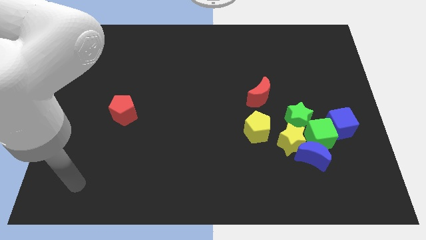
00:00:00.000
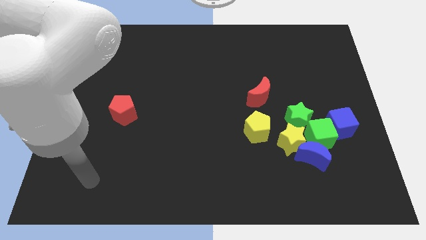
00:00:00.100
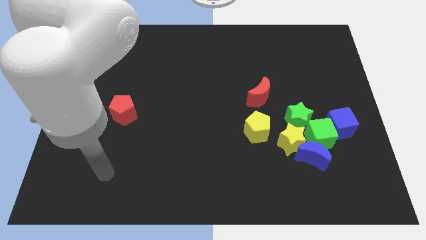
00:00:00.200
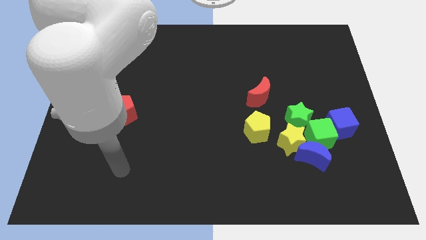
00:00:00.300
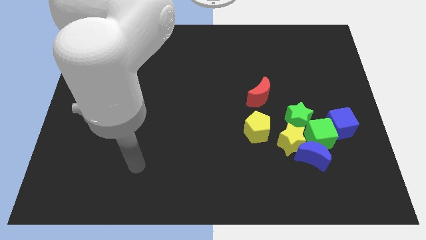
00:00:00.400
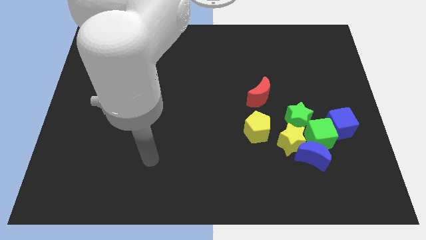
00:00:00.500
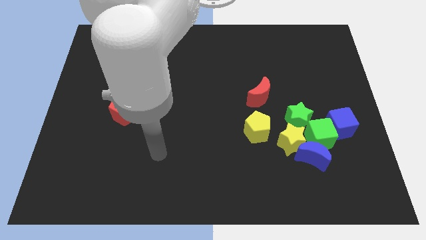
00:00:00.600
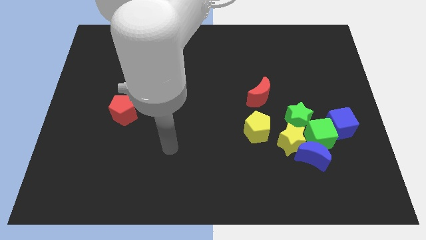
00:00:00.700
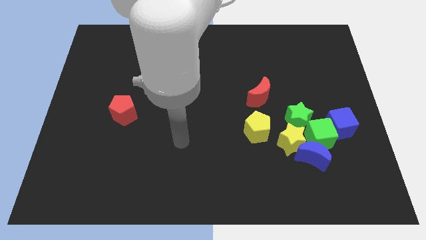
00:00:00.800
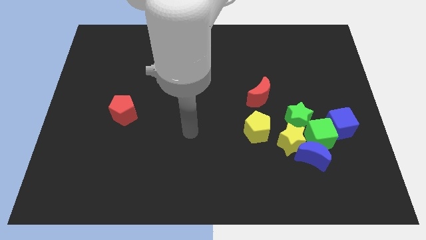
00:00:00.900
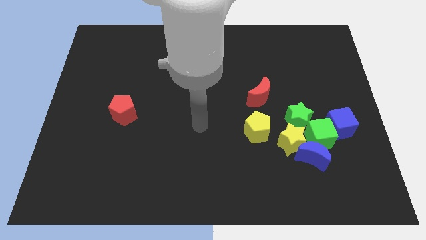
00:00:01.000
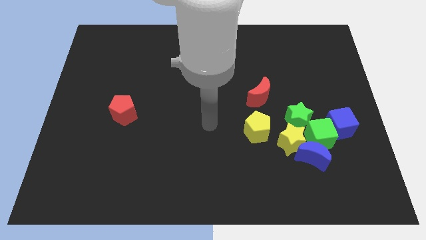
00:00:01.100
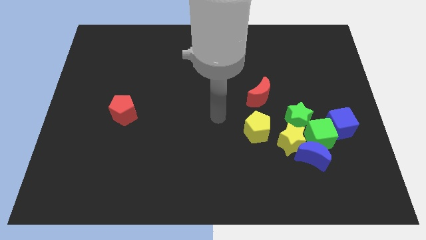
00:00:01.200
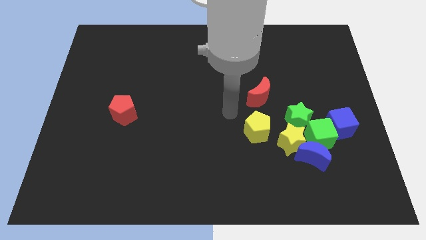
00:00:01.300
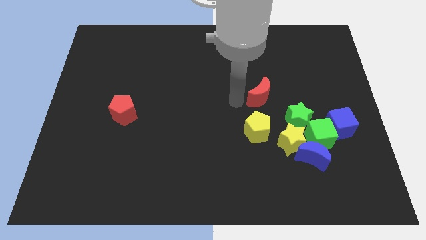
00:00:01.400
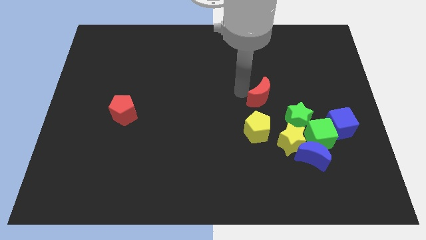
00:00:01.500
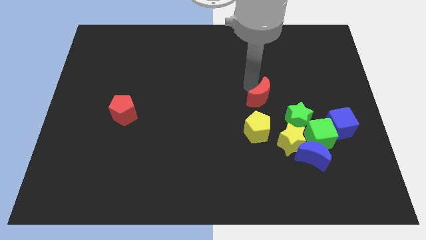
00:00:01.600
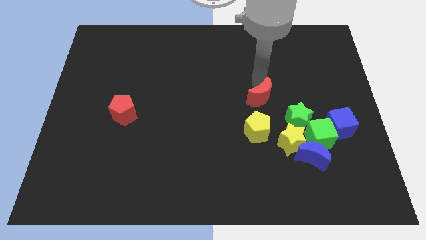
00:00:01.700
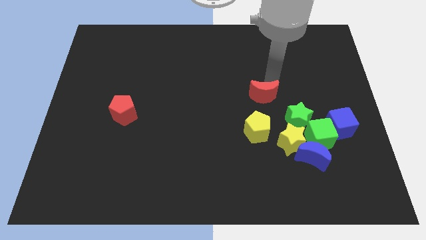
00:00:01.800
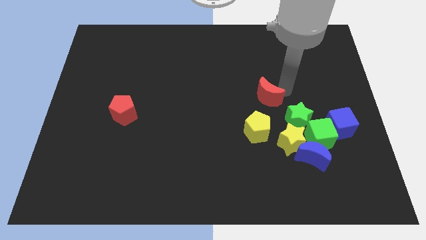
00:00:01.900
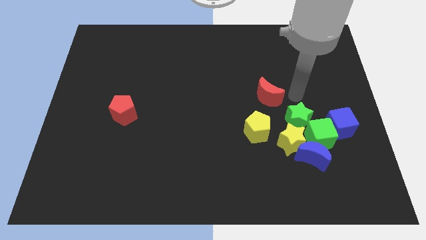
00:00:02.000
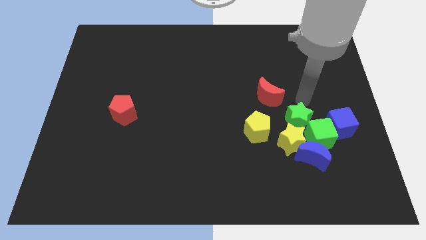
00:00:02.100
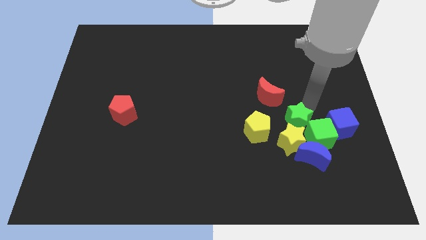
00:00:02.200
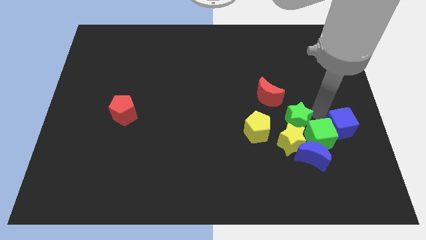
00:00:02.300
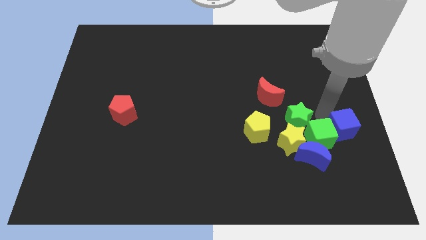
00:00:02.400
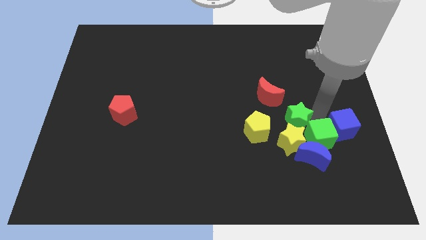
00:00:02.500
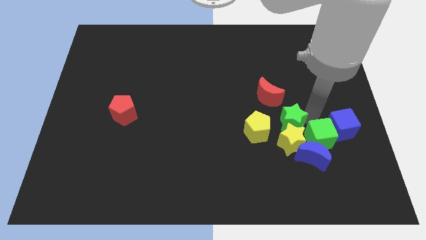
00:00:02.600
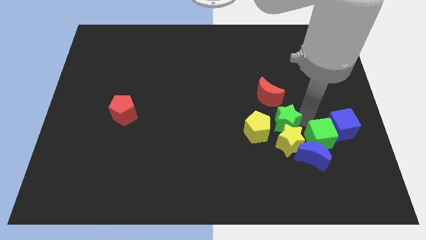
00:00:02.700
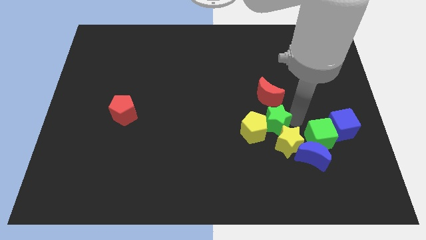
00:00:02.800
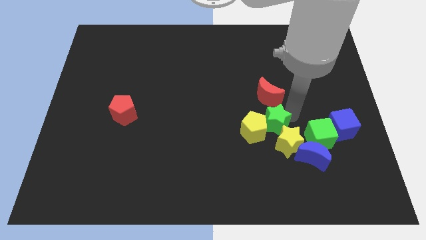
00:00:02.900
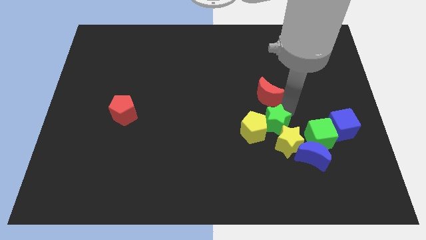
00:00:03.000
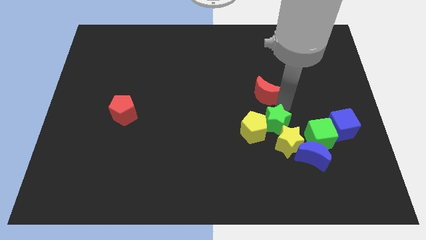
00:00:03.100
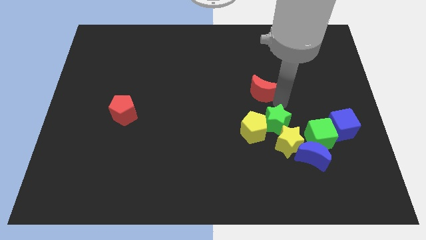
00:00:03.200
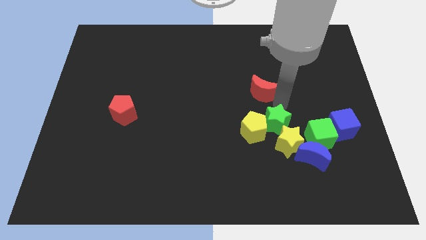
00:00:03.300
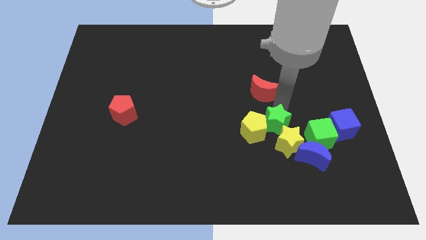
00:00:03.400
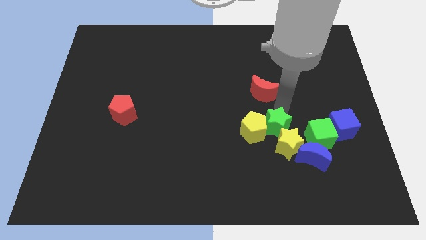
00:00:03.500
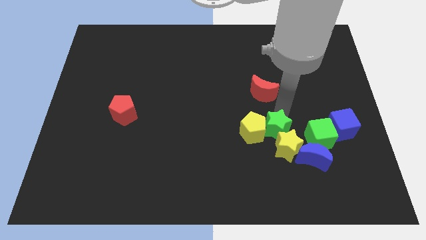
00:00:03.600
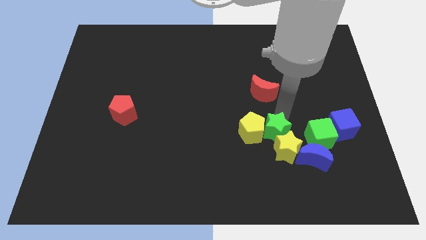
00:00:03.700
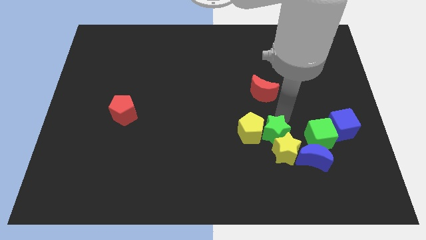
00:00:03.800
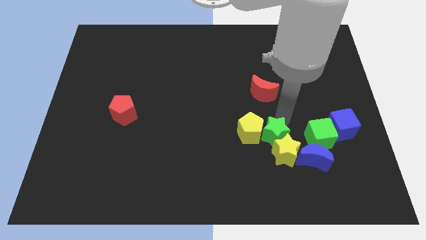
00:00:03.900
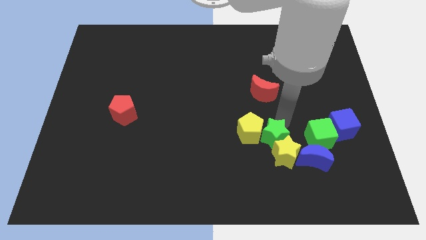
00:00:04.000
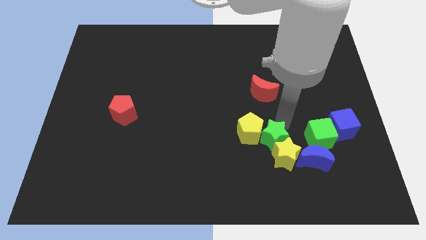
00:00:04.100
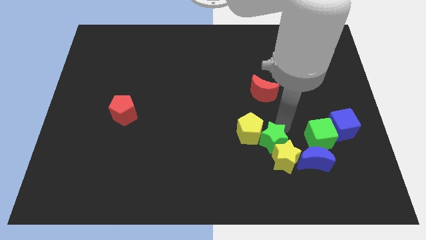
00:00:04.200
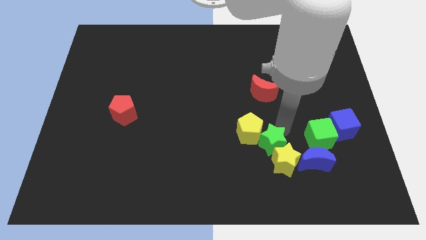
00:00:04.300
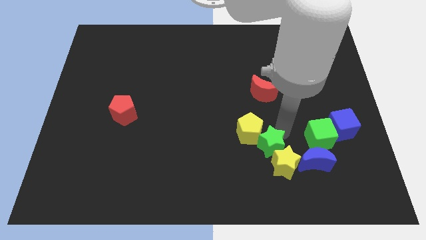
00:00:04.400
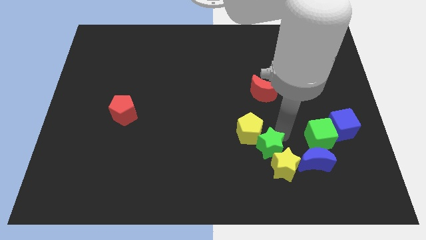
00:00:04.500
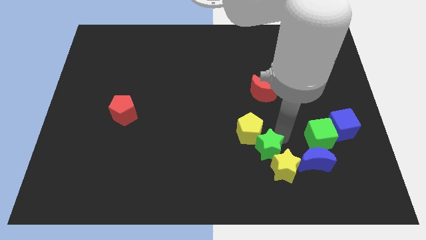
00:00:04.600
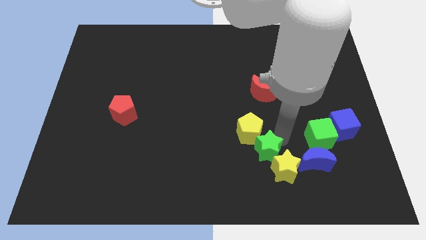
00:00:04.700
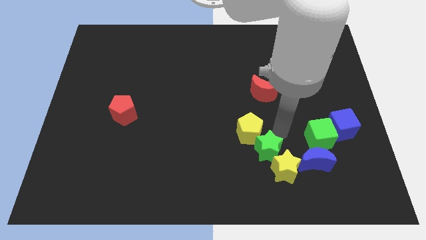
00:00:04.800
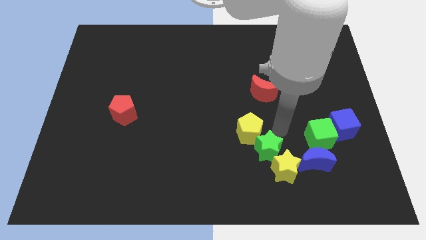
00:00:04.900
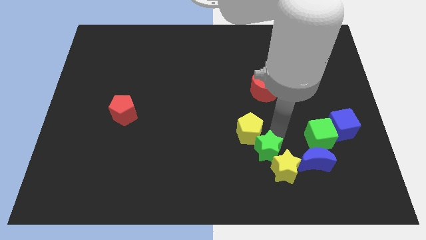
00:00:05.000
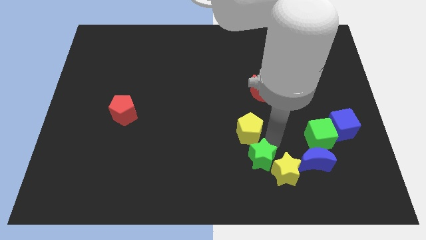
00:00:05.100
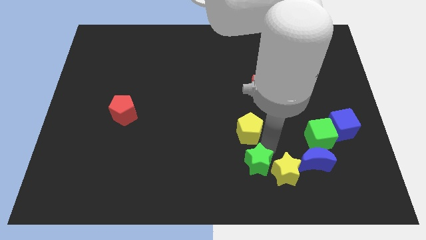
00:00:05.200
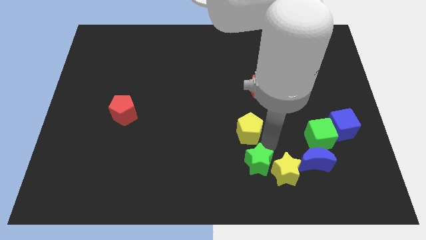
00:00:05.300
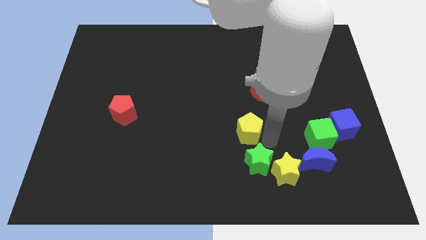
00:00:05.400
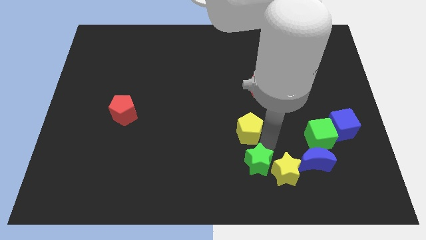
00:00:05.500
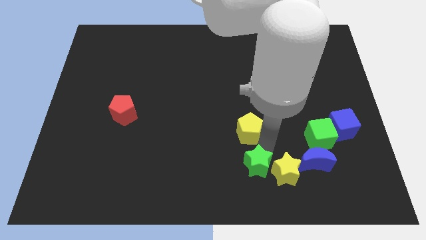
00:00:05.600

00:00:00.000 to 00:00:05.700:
put the green star to the bottom

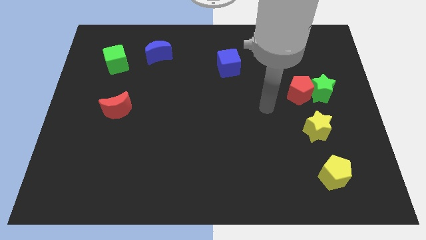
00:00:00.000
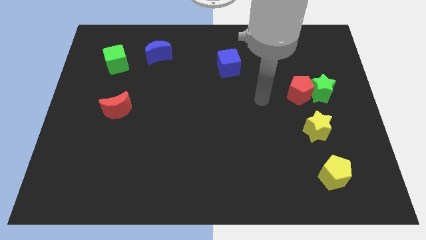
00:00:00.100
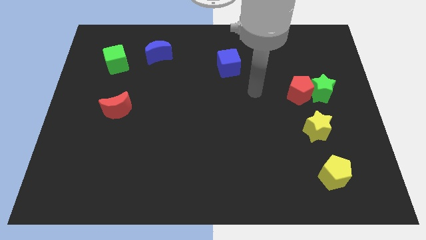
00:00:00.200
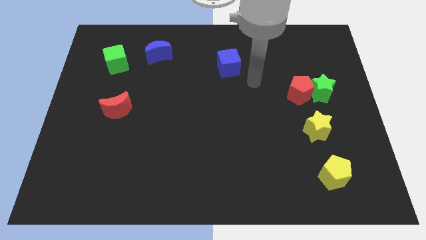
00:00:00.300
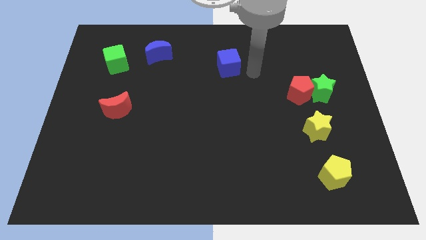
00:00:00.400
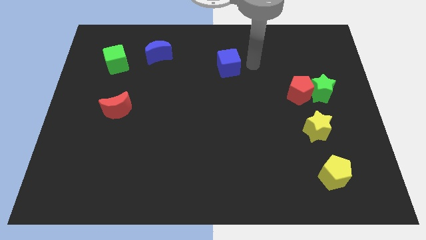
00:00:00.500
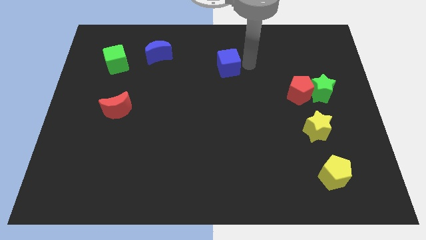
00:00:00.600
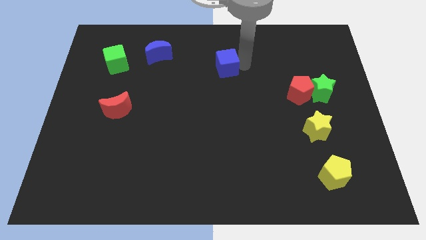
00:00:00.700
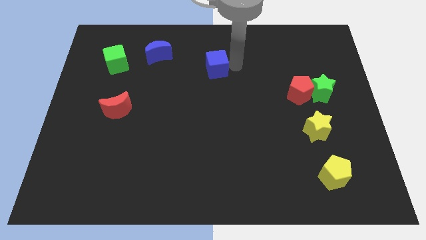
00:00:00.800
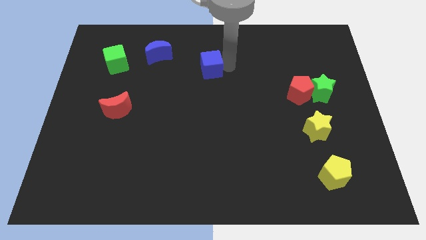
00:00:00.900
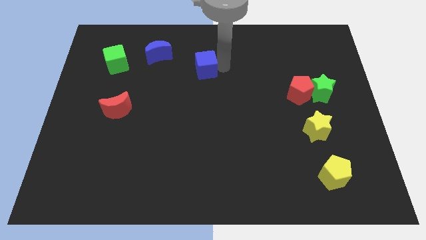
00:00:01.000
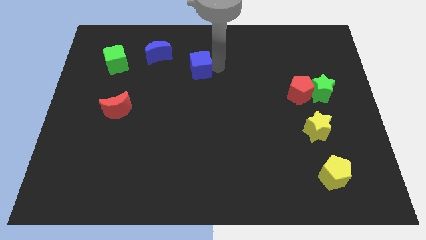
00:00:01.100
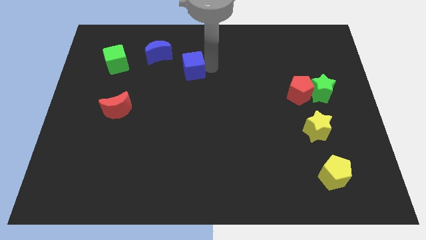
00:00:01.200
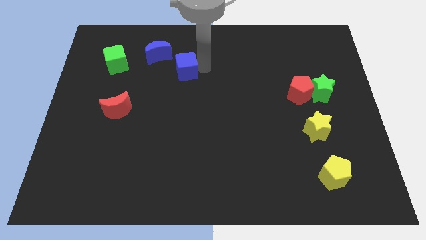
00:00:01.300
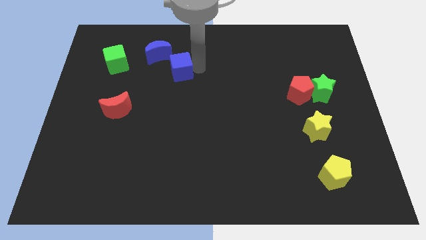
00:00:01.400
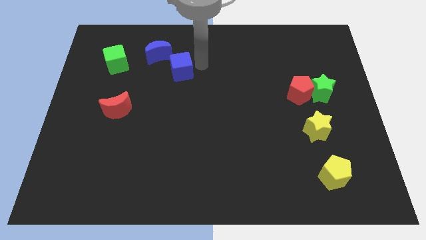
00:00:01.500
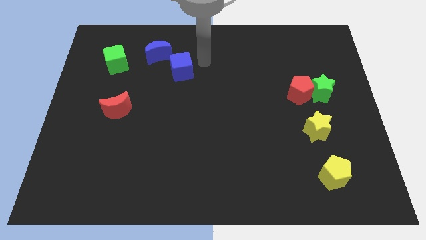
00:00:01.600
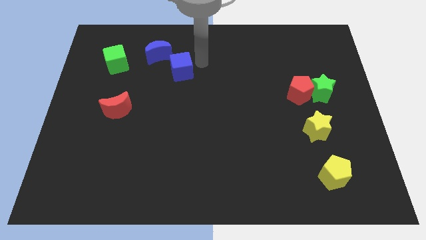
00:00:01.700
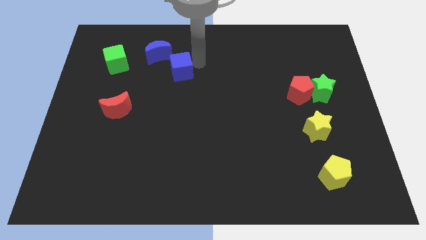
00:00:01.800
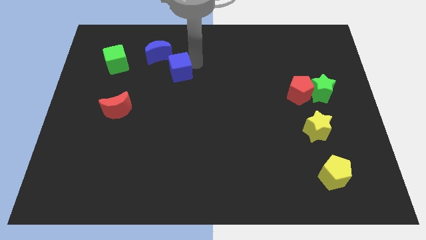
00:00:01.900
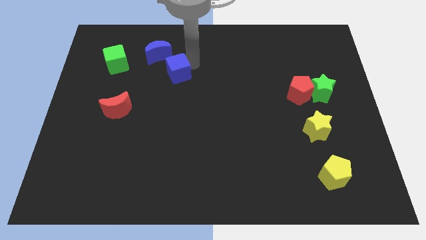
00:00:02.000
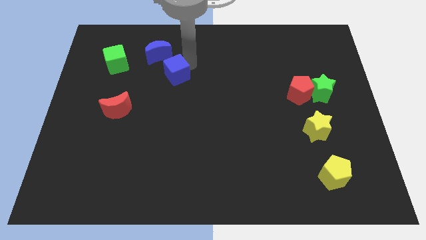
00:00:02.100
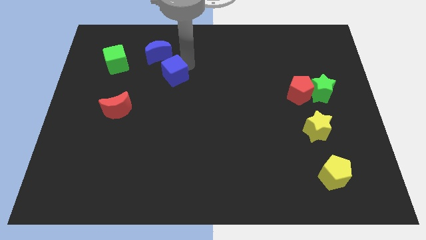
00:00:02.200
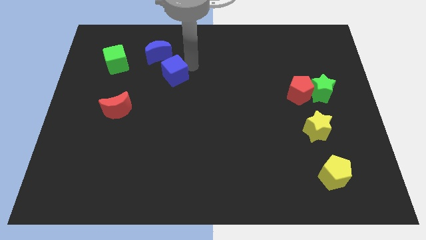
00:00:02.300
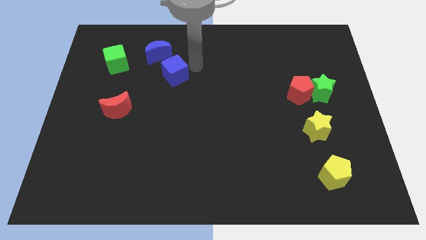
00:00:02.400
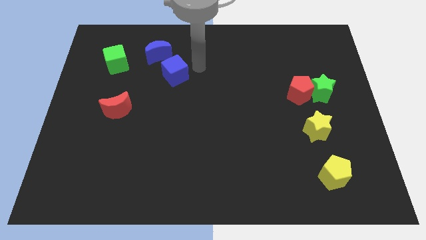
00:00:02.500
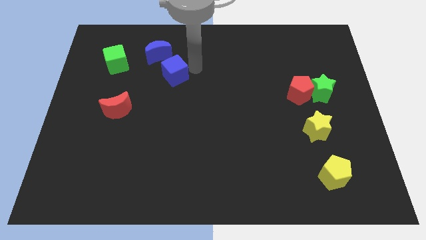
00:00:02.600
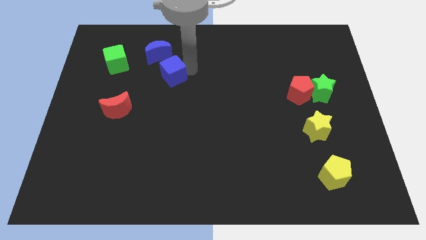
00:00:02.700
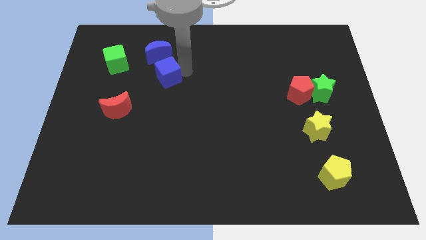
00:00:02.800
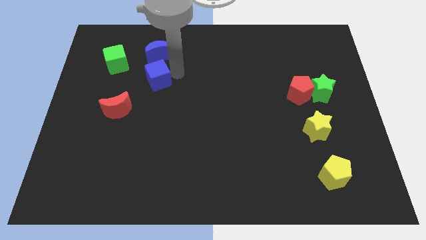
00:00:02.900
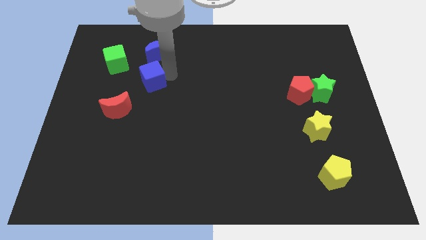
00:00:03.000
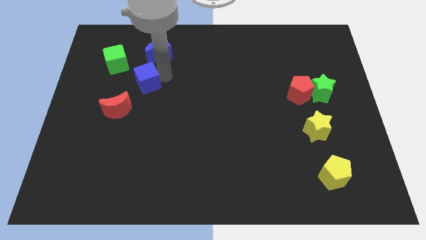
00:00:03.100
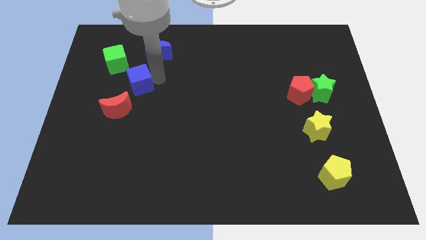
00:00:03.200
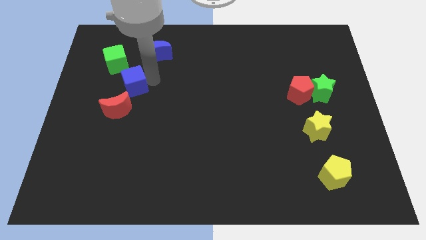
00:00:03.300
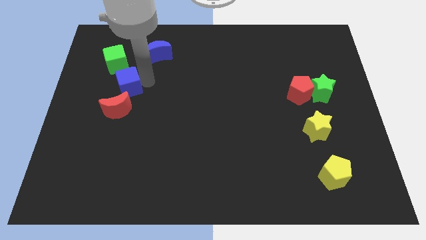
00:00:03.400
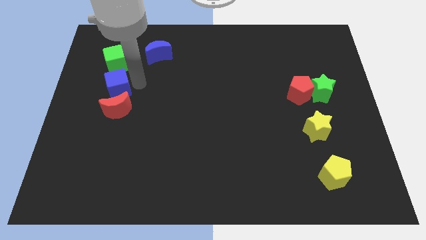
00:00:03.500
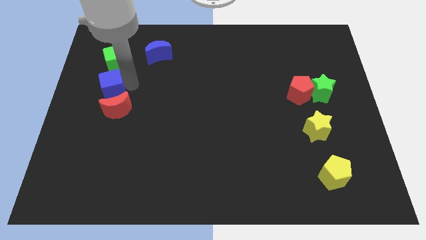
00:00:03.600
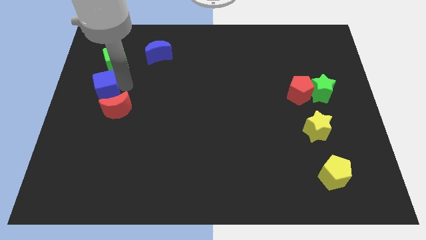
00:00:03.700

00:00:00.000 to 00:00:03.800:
put the blue cube to the left side of the board
